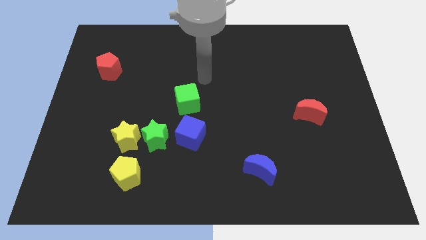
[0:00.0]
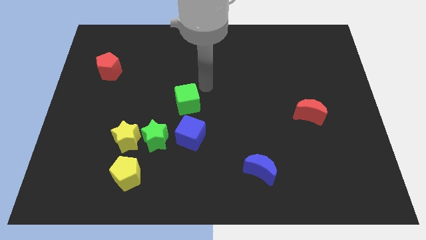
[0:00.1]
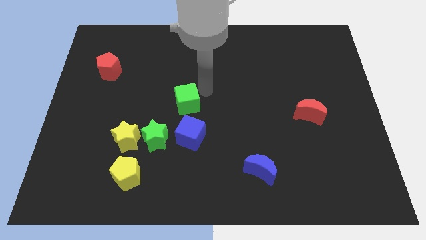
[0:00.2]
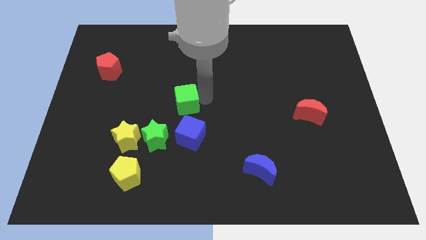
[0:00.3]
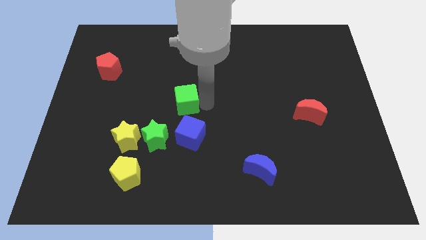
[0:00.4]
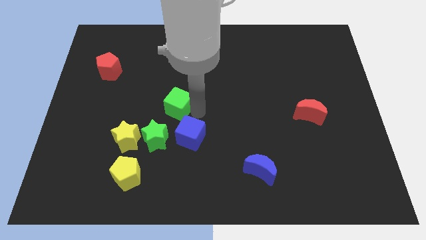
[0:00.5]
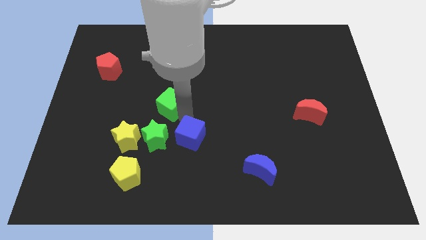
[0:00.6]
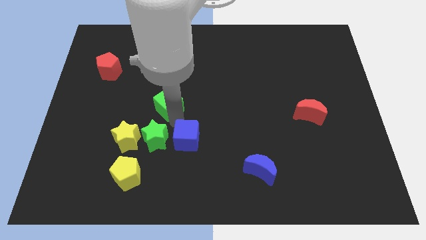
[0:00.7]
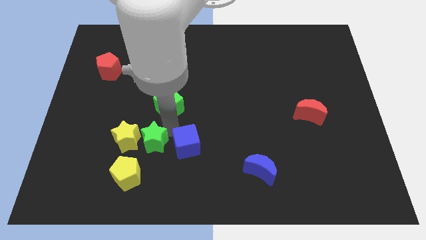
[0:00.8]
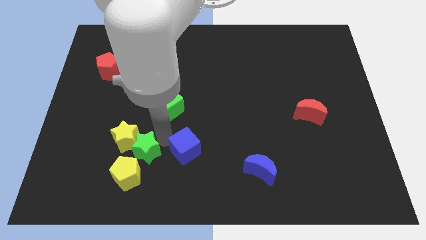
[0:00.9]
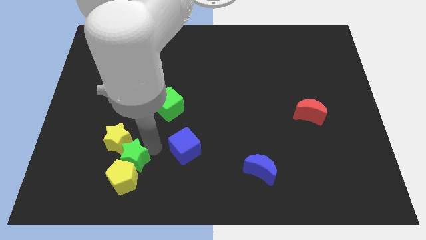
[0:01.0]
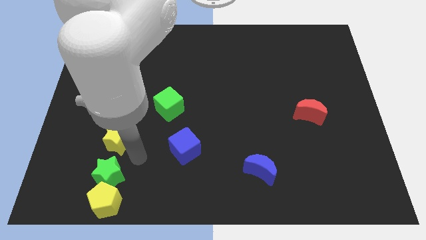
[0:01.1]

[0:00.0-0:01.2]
move the yellow star away from the green star and yellow pentagon

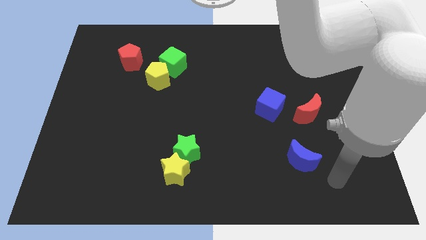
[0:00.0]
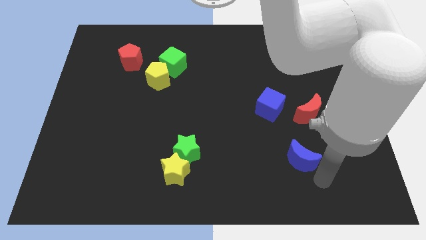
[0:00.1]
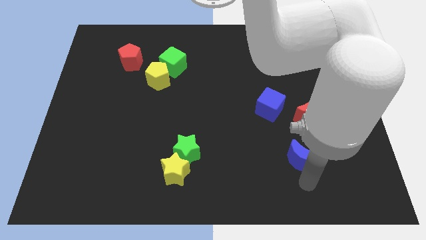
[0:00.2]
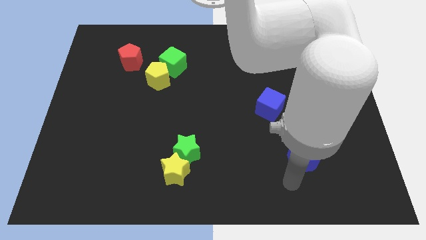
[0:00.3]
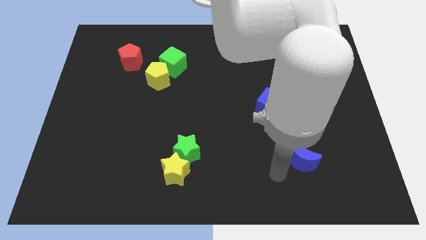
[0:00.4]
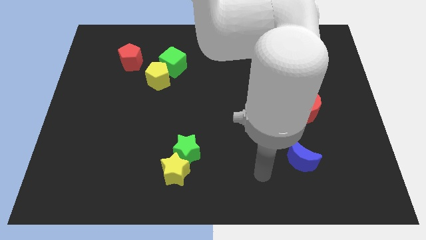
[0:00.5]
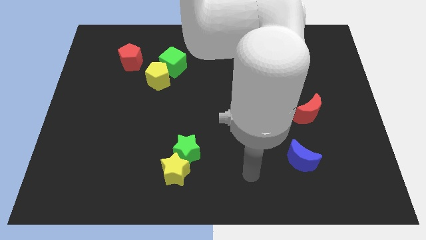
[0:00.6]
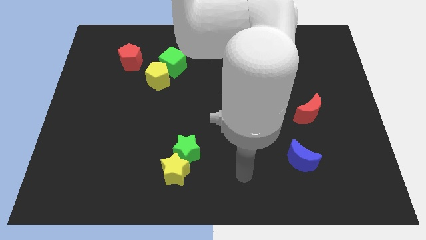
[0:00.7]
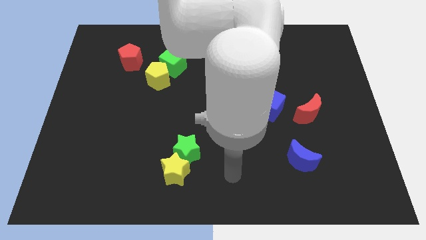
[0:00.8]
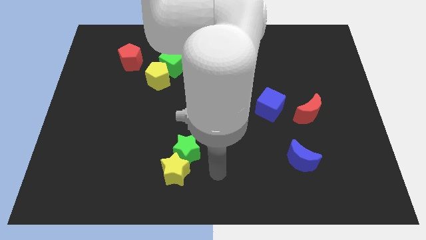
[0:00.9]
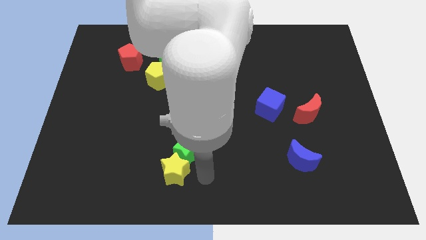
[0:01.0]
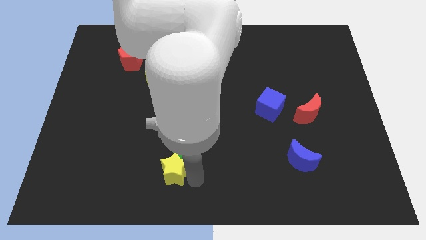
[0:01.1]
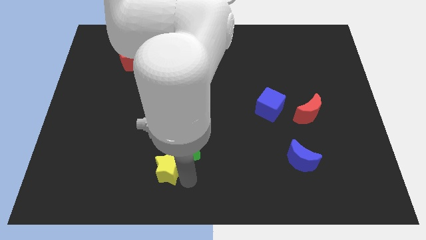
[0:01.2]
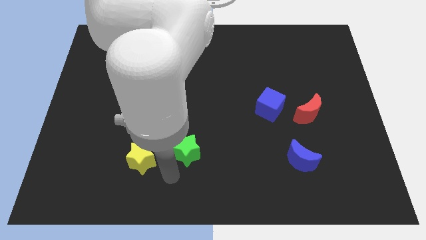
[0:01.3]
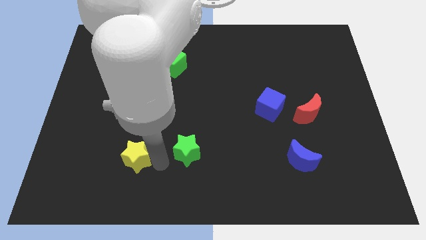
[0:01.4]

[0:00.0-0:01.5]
move the green star away from the yellow star

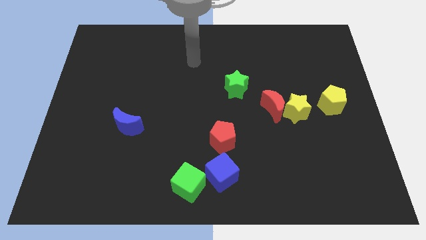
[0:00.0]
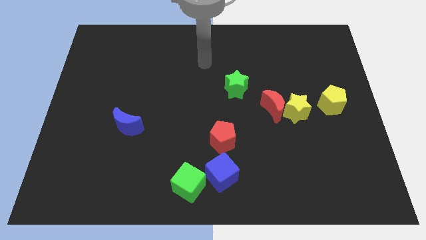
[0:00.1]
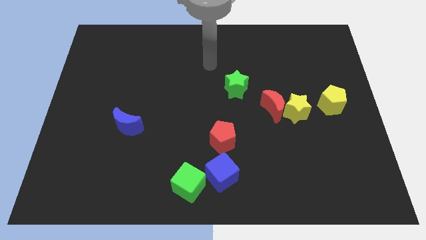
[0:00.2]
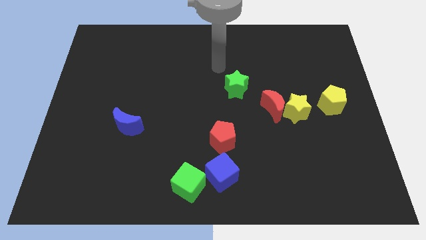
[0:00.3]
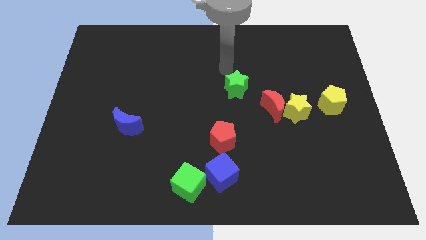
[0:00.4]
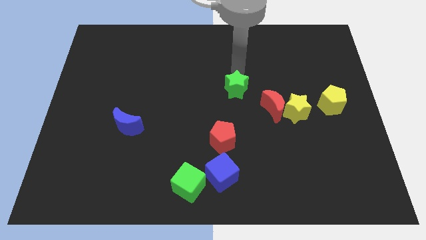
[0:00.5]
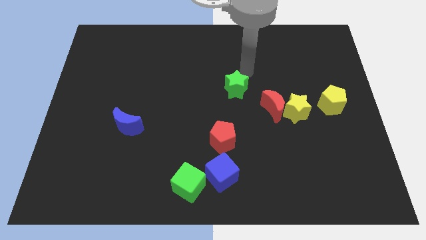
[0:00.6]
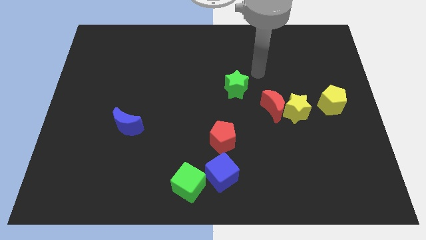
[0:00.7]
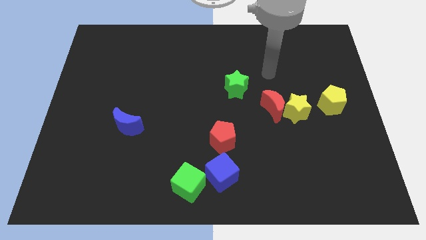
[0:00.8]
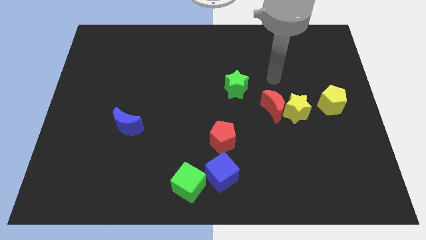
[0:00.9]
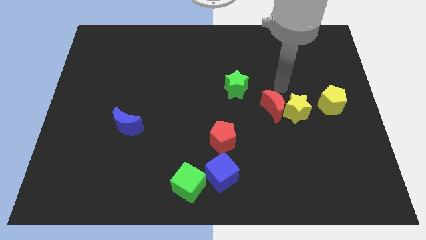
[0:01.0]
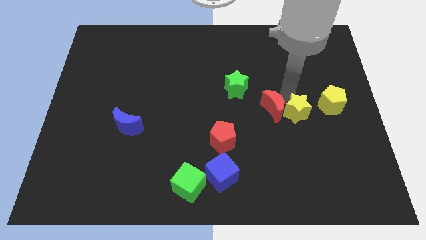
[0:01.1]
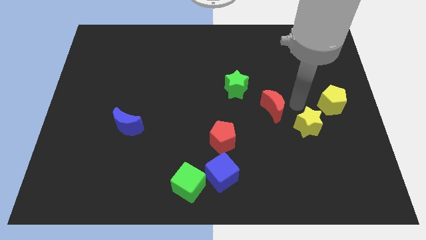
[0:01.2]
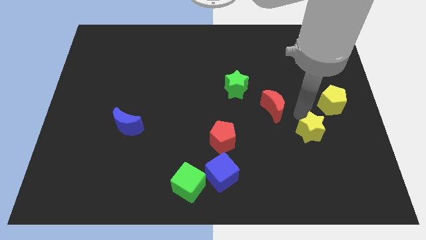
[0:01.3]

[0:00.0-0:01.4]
pull the red moon apart from the yellow star

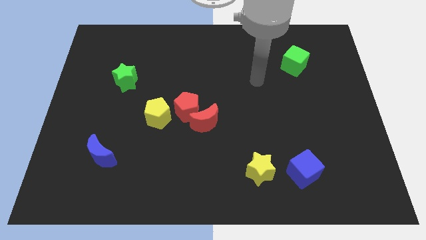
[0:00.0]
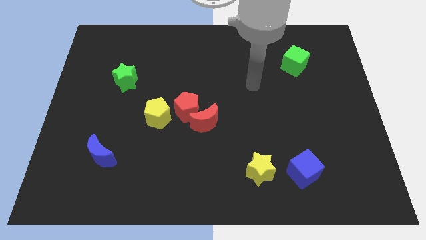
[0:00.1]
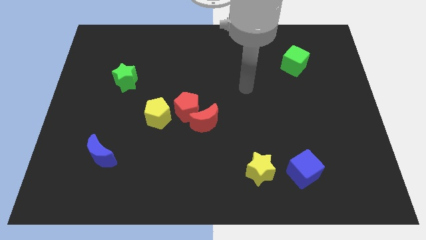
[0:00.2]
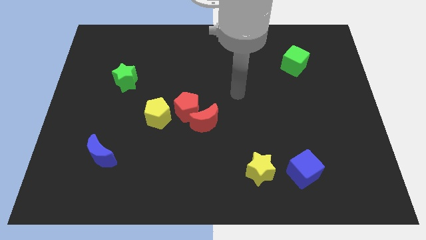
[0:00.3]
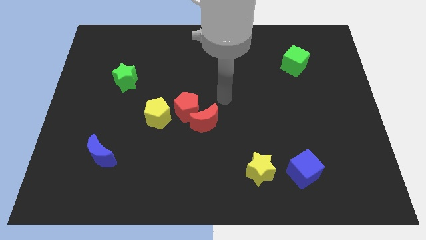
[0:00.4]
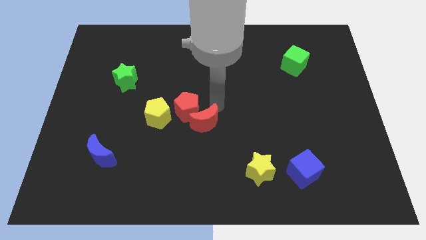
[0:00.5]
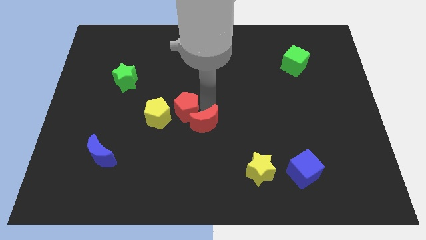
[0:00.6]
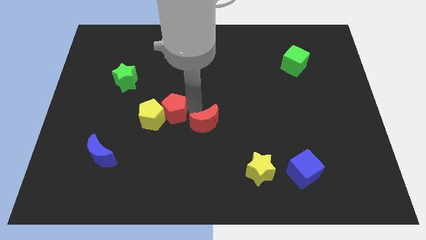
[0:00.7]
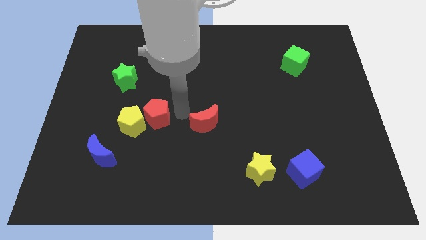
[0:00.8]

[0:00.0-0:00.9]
move the red moon away from the red pentagon

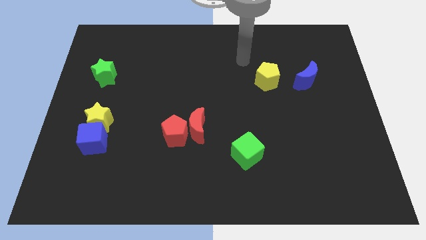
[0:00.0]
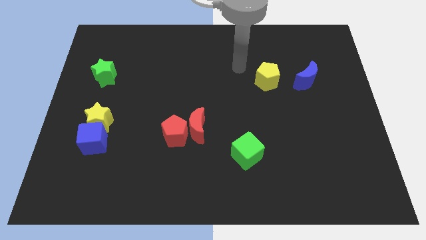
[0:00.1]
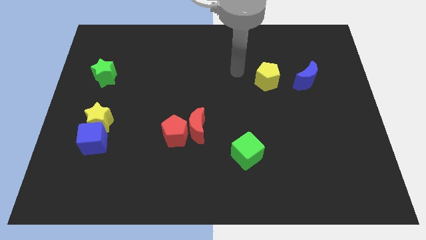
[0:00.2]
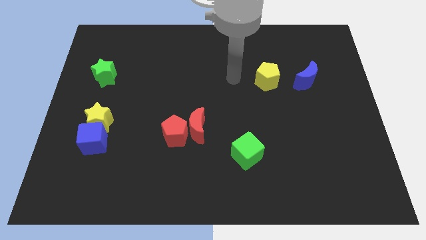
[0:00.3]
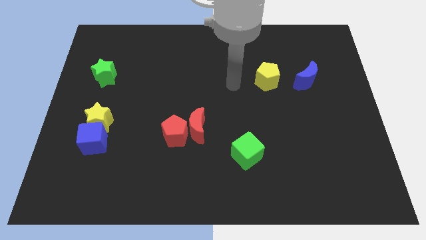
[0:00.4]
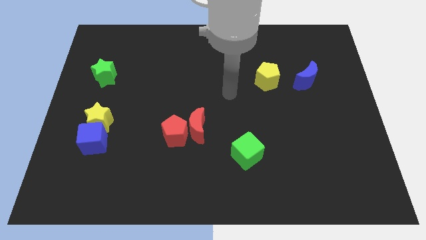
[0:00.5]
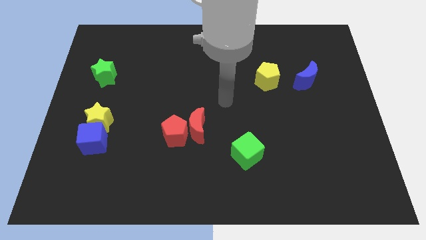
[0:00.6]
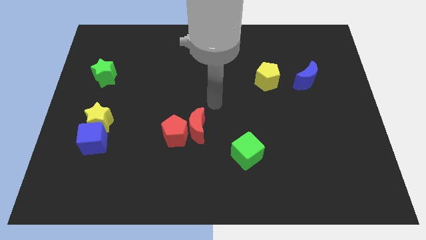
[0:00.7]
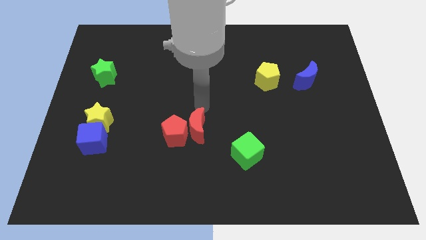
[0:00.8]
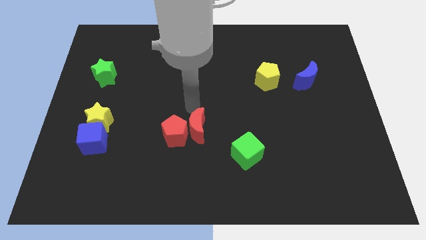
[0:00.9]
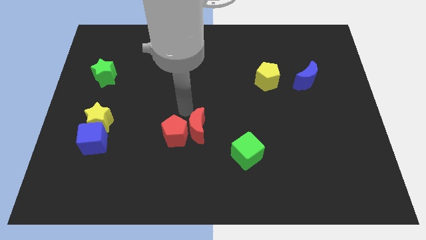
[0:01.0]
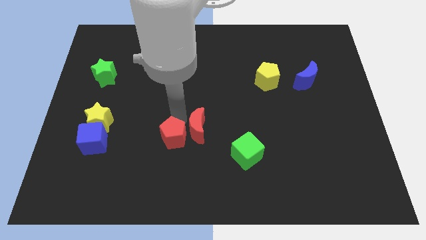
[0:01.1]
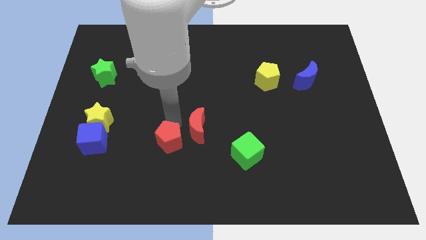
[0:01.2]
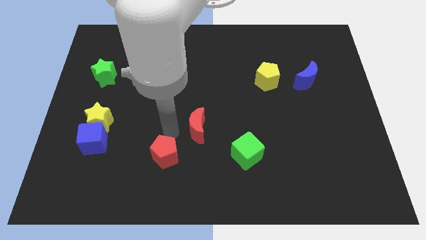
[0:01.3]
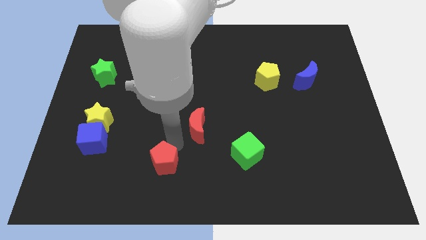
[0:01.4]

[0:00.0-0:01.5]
separate the red moon from the red pentagon

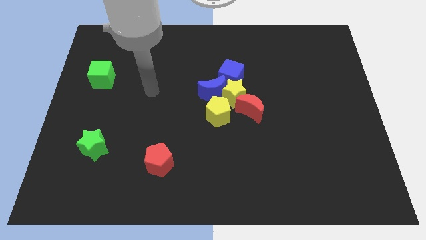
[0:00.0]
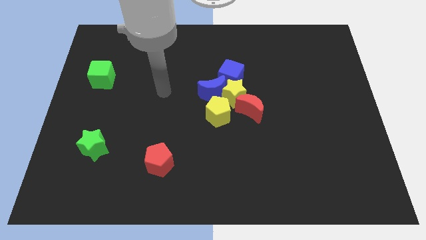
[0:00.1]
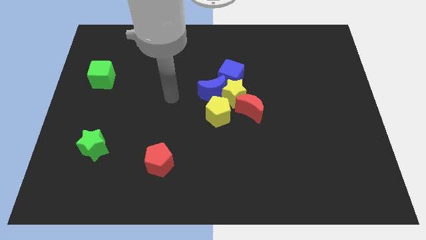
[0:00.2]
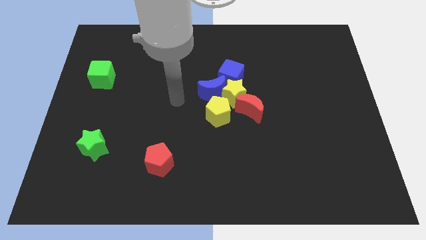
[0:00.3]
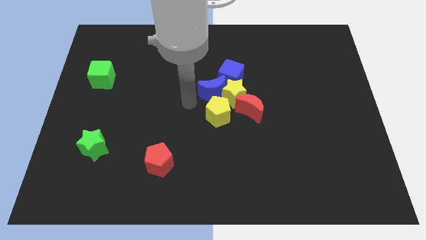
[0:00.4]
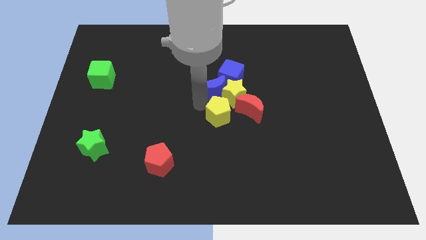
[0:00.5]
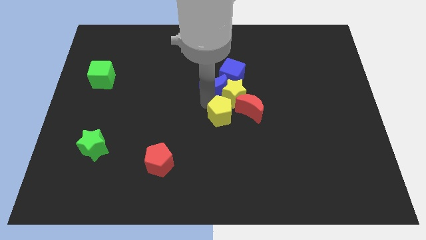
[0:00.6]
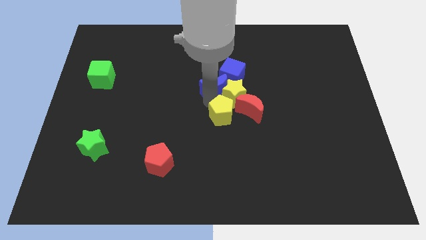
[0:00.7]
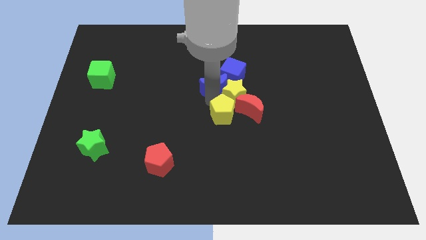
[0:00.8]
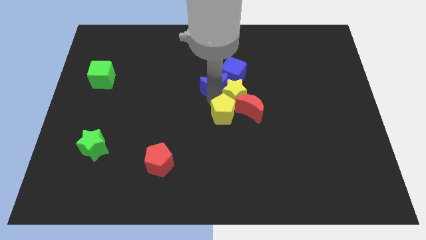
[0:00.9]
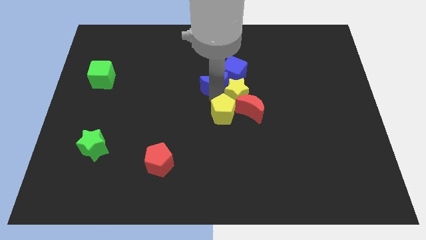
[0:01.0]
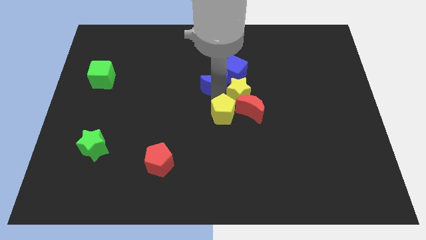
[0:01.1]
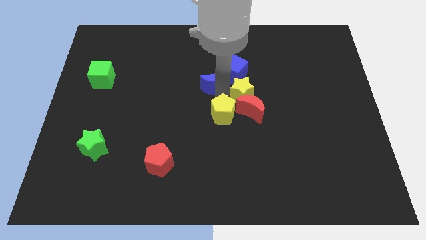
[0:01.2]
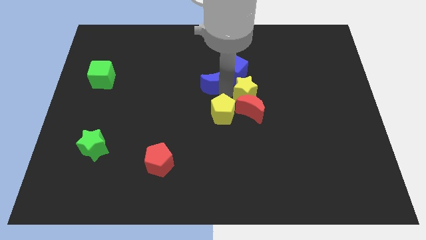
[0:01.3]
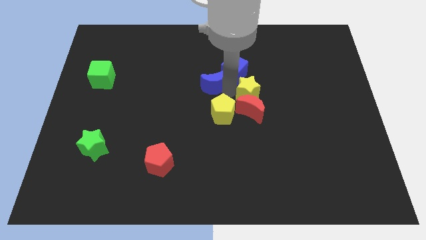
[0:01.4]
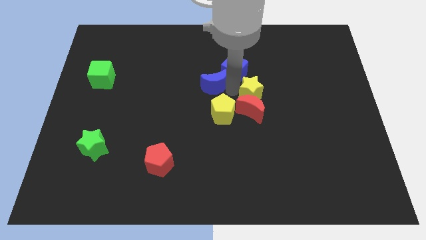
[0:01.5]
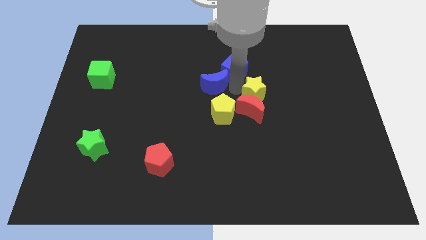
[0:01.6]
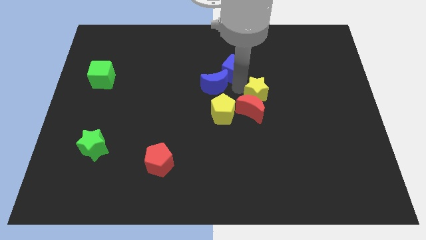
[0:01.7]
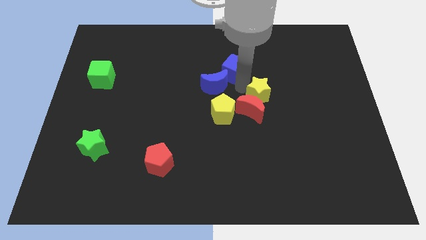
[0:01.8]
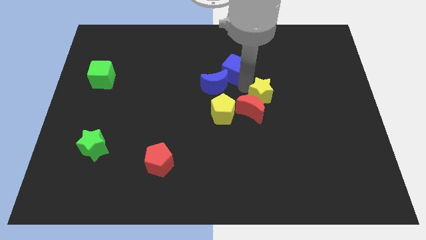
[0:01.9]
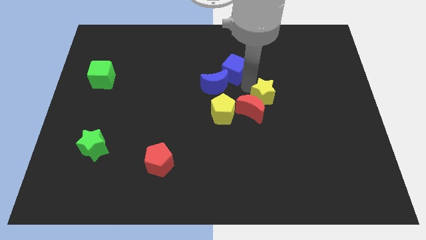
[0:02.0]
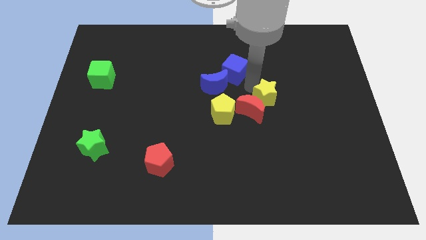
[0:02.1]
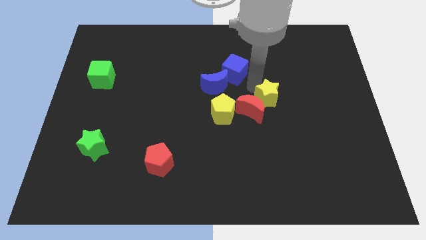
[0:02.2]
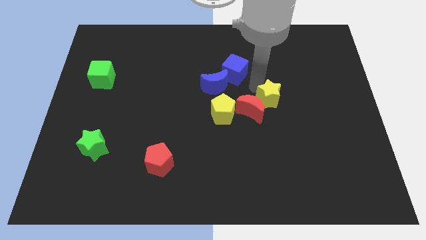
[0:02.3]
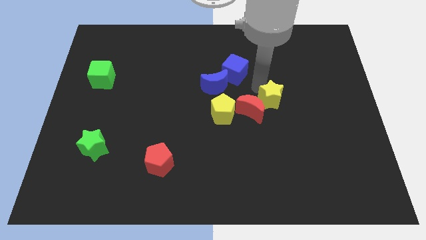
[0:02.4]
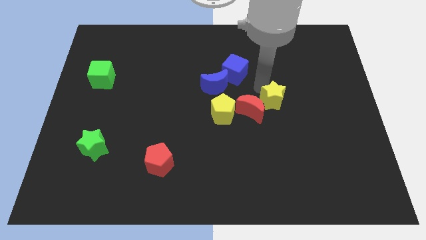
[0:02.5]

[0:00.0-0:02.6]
move the yellow star away from the clump

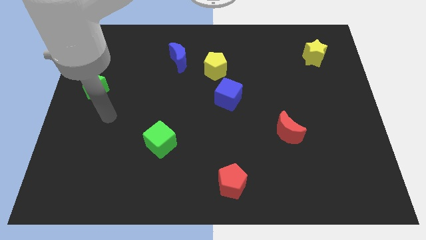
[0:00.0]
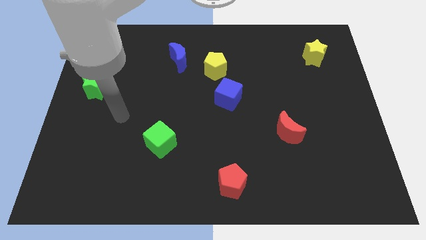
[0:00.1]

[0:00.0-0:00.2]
separate the blue moon from the yellow pentagon
